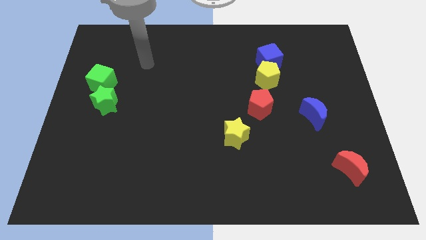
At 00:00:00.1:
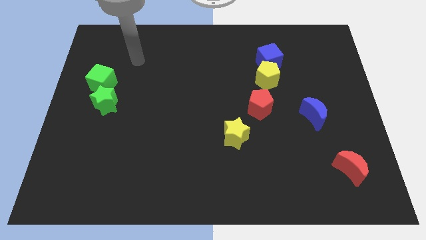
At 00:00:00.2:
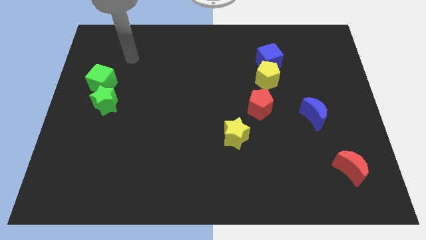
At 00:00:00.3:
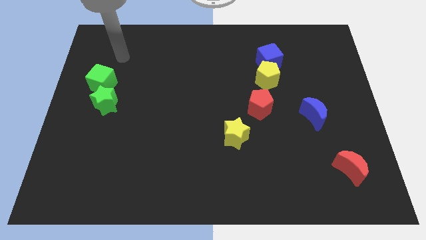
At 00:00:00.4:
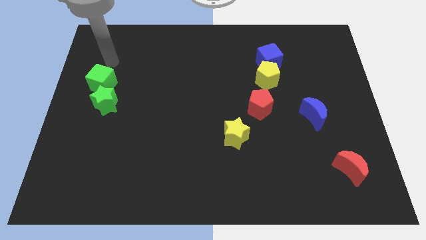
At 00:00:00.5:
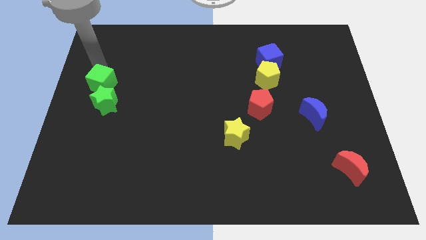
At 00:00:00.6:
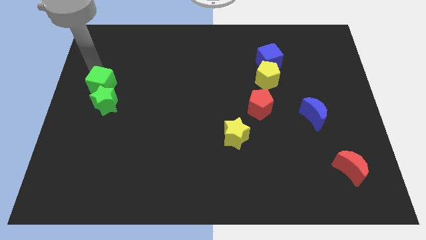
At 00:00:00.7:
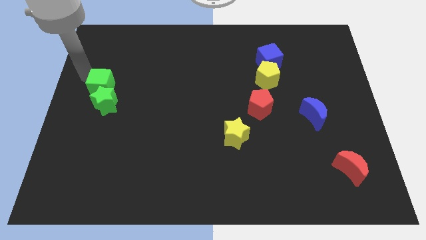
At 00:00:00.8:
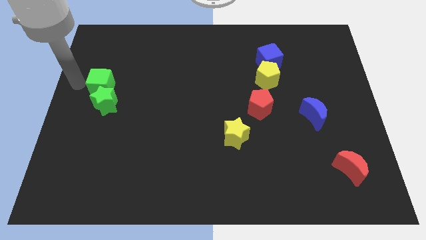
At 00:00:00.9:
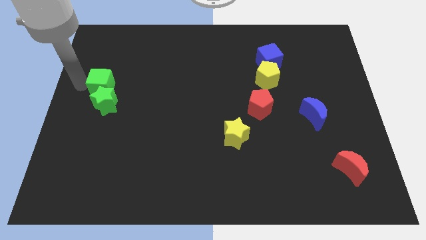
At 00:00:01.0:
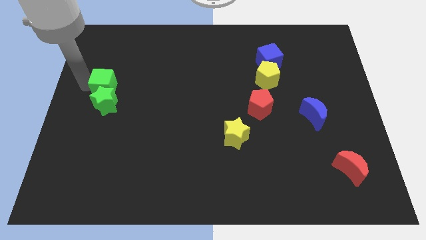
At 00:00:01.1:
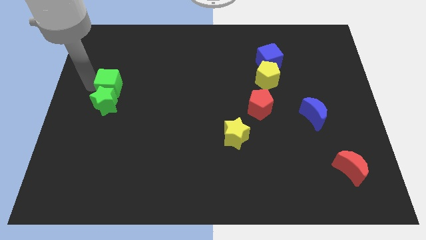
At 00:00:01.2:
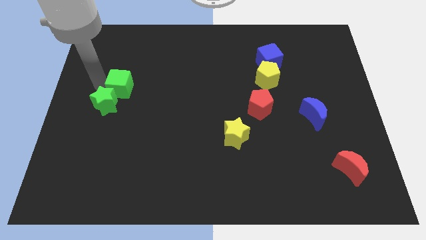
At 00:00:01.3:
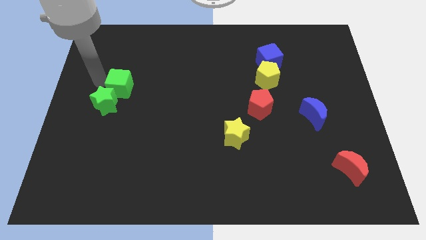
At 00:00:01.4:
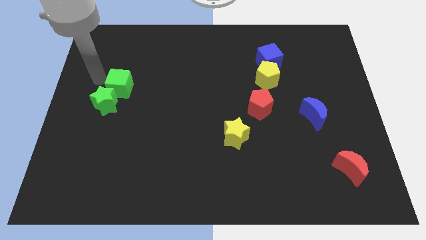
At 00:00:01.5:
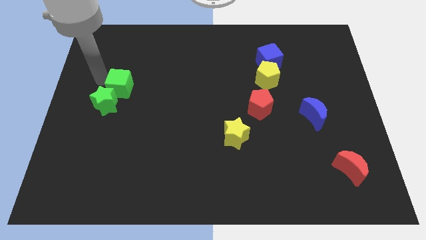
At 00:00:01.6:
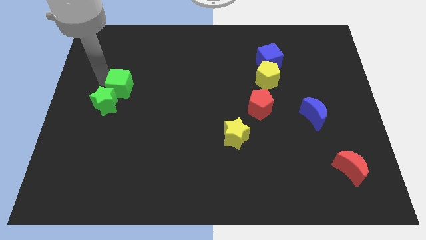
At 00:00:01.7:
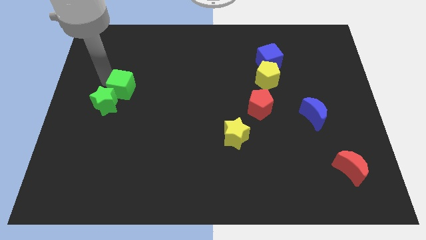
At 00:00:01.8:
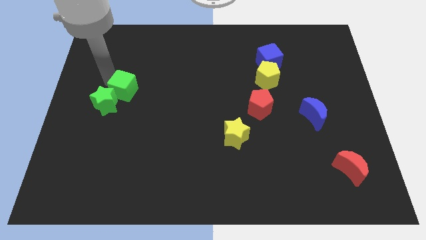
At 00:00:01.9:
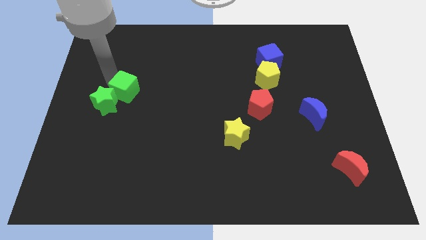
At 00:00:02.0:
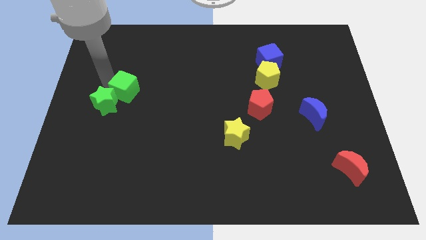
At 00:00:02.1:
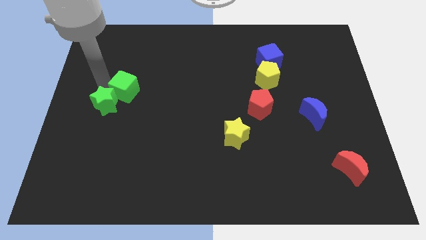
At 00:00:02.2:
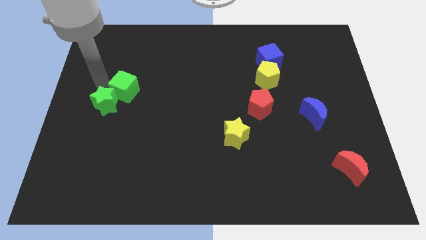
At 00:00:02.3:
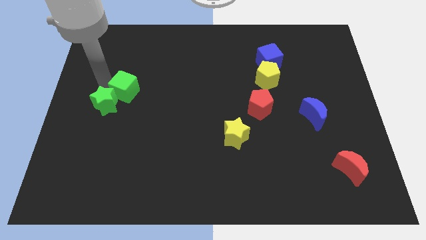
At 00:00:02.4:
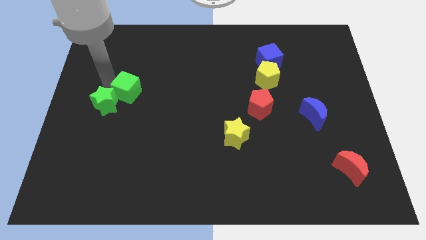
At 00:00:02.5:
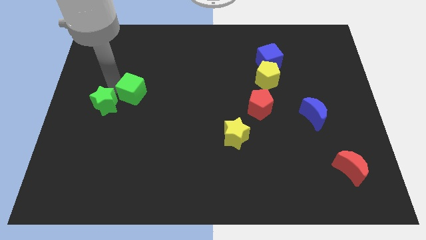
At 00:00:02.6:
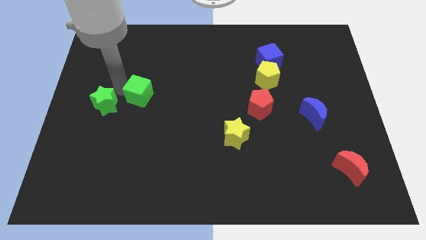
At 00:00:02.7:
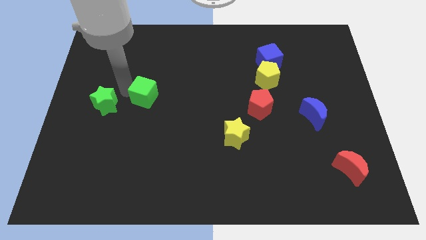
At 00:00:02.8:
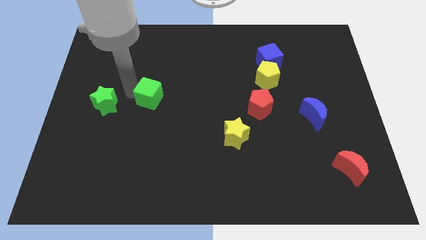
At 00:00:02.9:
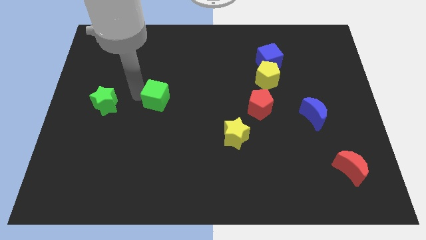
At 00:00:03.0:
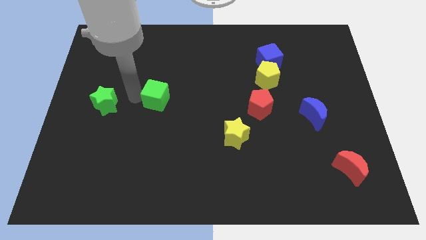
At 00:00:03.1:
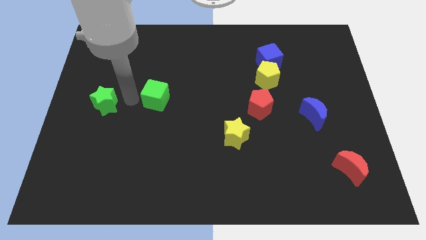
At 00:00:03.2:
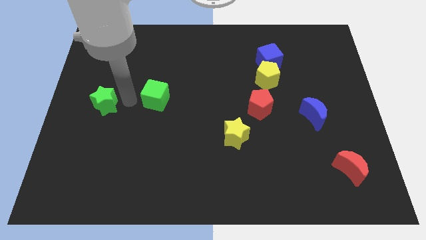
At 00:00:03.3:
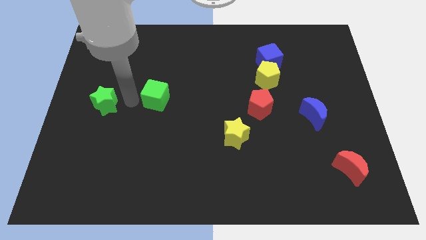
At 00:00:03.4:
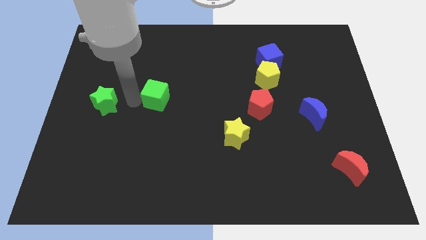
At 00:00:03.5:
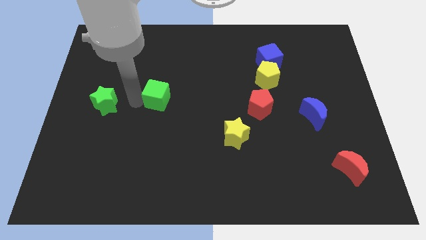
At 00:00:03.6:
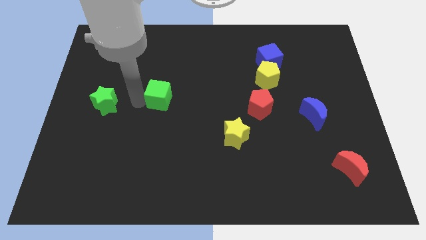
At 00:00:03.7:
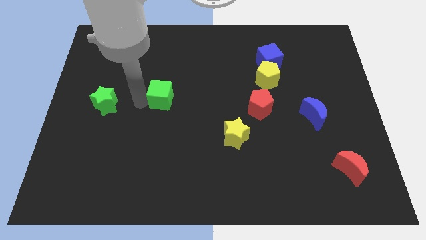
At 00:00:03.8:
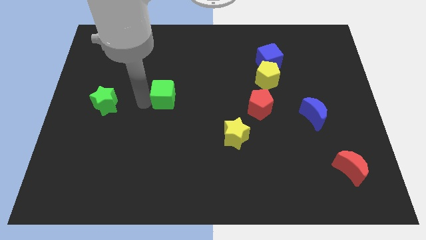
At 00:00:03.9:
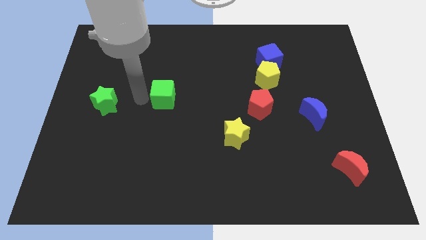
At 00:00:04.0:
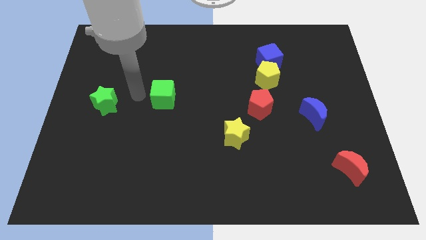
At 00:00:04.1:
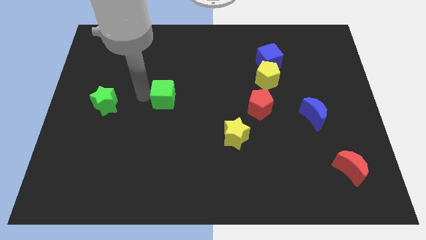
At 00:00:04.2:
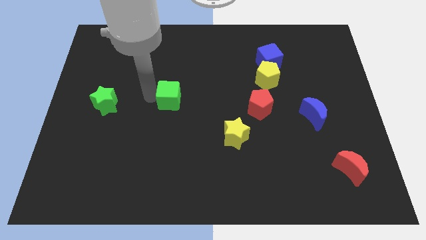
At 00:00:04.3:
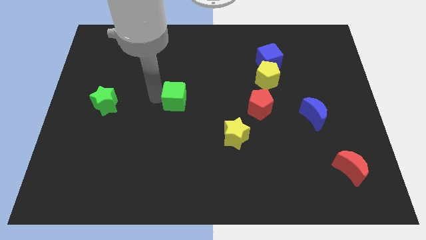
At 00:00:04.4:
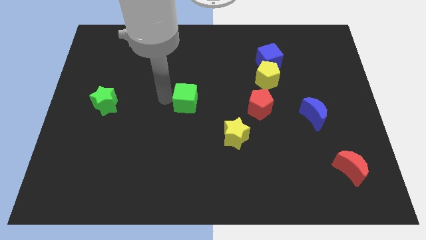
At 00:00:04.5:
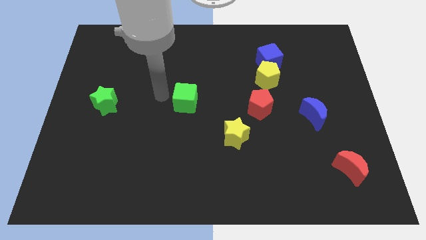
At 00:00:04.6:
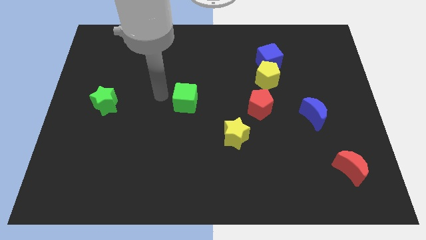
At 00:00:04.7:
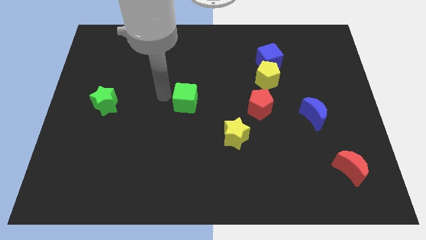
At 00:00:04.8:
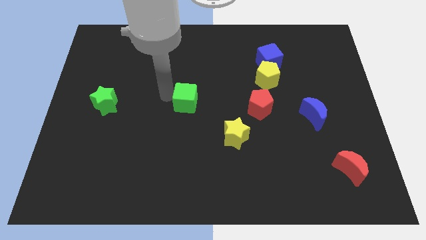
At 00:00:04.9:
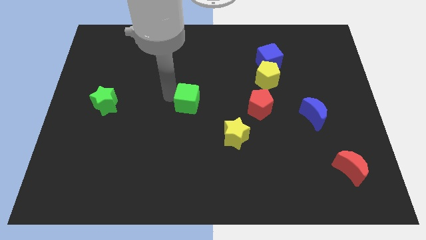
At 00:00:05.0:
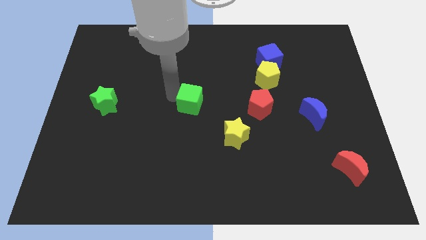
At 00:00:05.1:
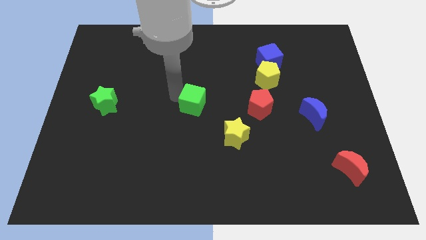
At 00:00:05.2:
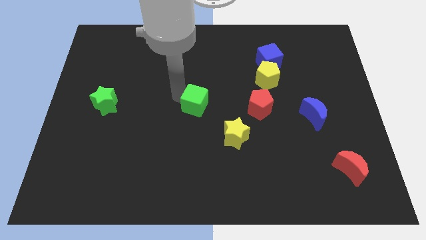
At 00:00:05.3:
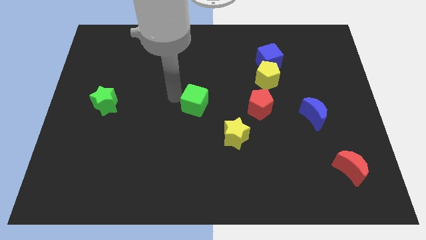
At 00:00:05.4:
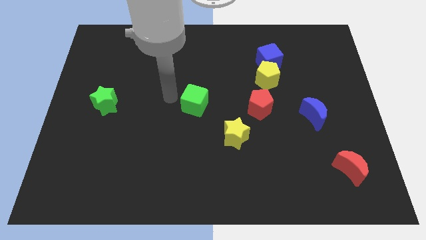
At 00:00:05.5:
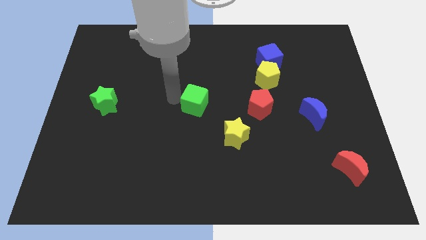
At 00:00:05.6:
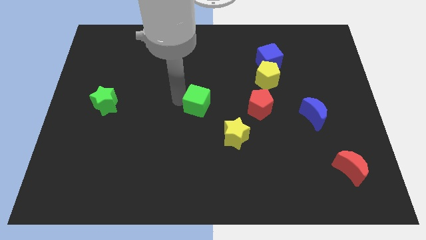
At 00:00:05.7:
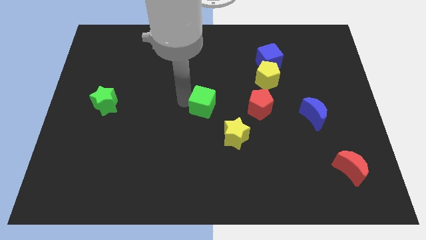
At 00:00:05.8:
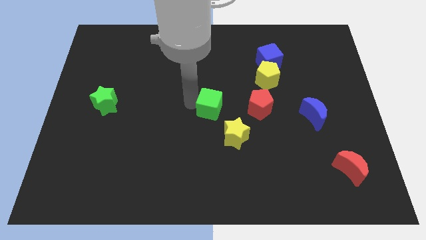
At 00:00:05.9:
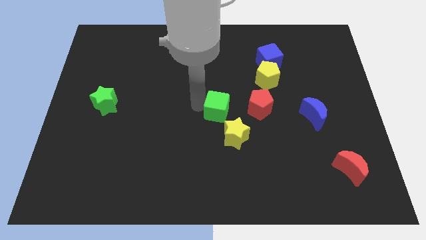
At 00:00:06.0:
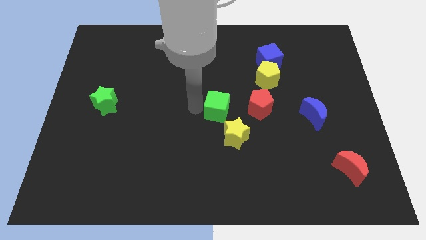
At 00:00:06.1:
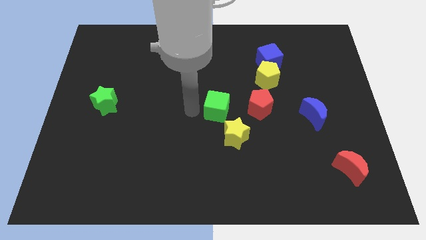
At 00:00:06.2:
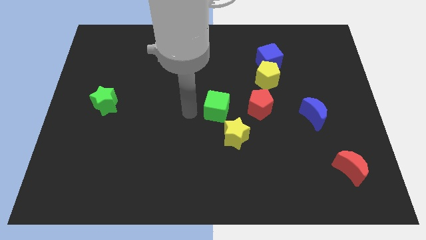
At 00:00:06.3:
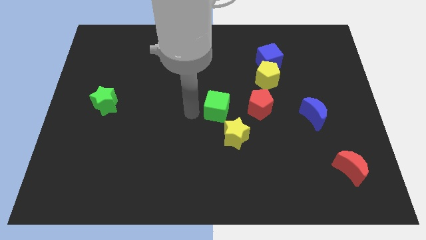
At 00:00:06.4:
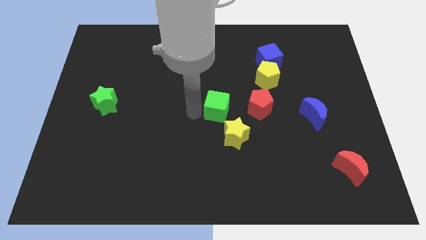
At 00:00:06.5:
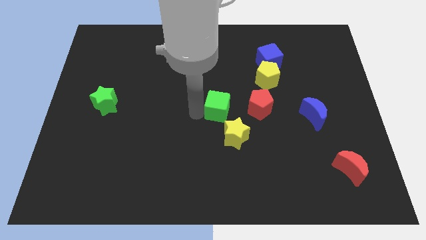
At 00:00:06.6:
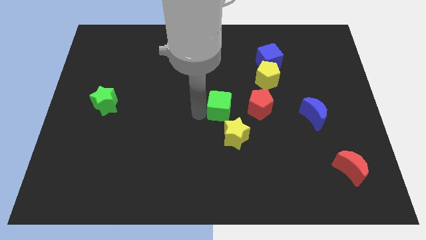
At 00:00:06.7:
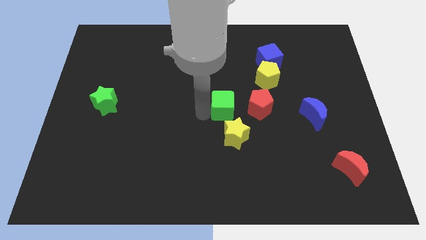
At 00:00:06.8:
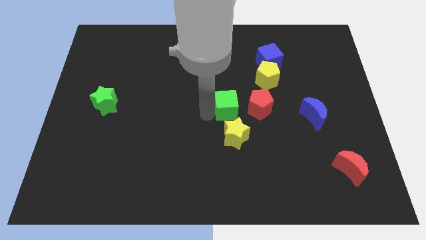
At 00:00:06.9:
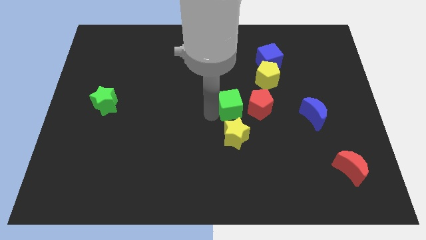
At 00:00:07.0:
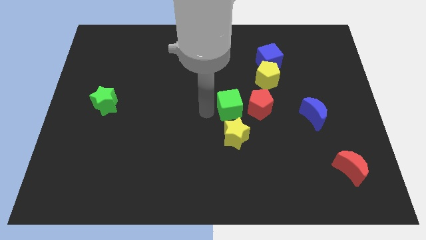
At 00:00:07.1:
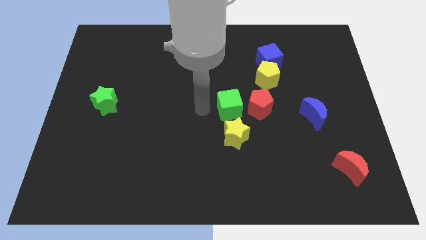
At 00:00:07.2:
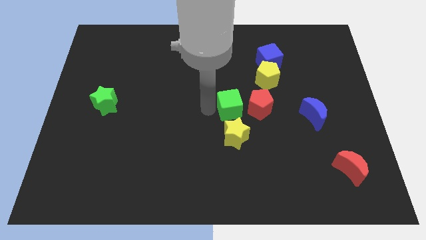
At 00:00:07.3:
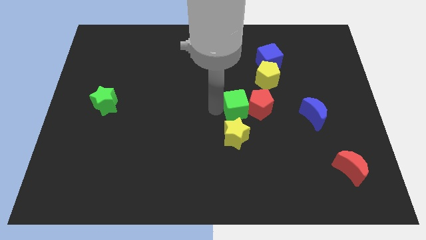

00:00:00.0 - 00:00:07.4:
move the green cube close to the red pentagon

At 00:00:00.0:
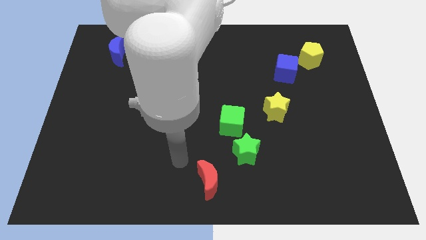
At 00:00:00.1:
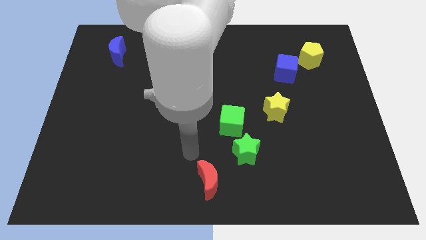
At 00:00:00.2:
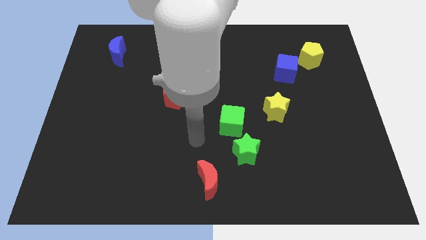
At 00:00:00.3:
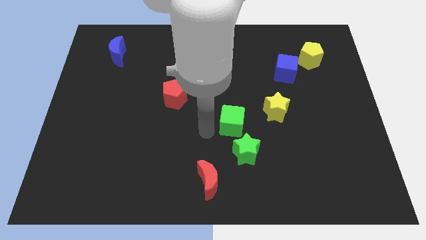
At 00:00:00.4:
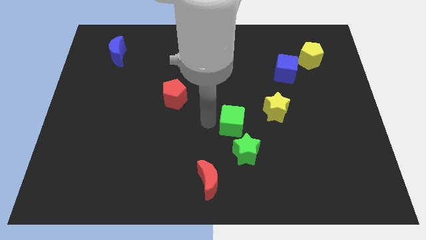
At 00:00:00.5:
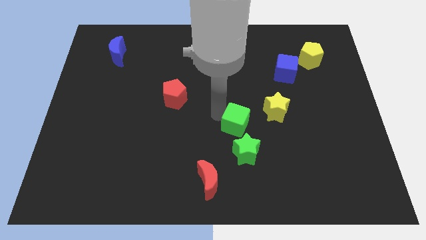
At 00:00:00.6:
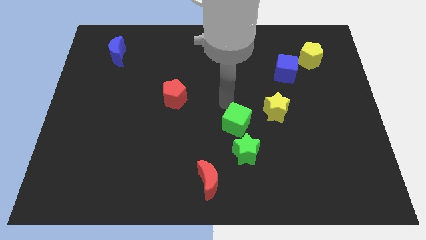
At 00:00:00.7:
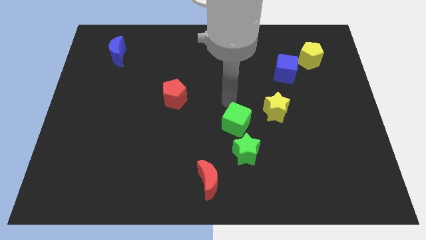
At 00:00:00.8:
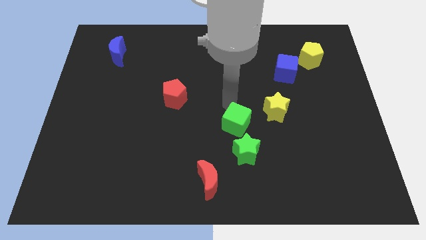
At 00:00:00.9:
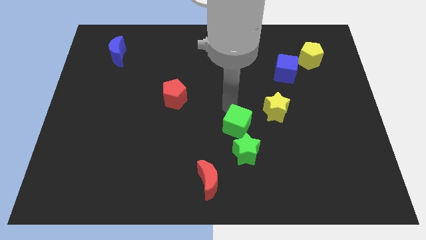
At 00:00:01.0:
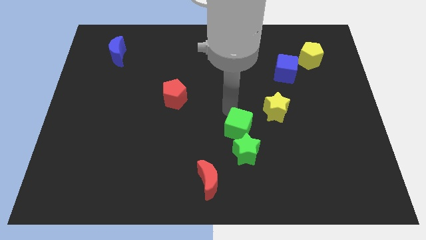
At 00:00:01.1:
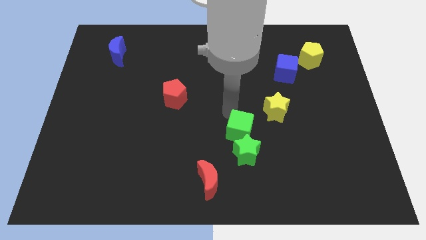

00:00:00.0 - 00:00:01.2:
slide the green cube close to the green star
